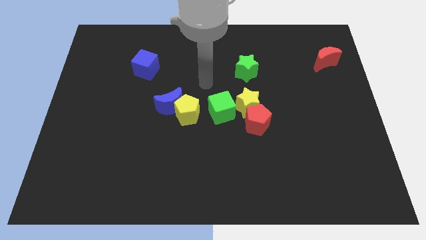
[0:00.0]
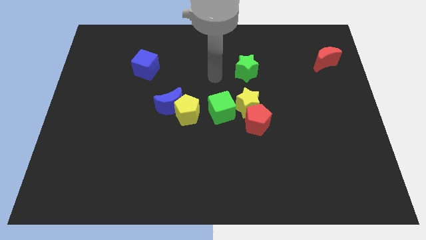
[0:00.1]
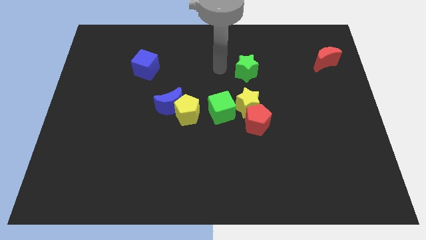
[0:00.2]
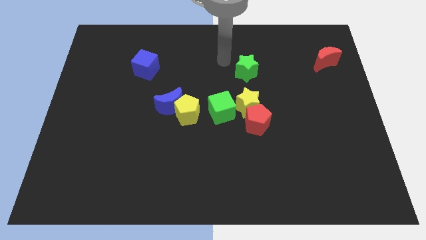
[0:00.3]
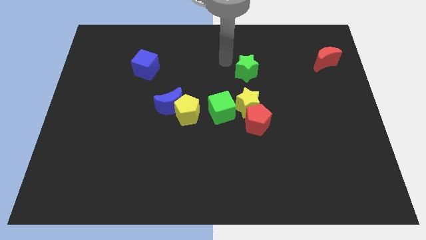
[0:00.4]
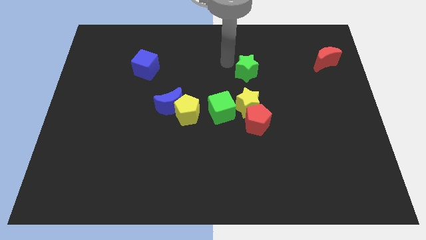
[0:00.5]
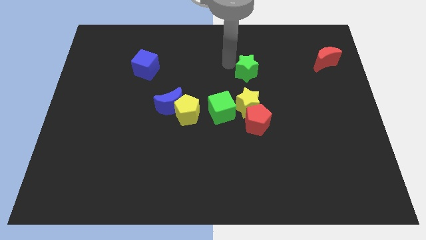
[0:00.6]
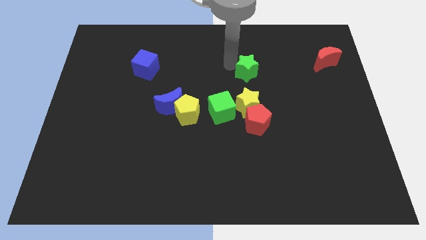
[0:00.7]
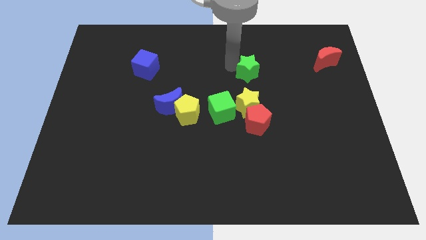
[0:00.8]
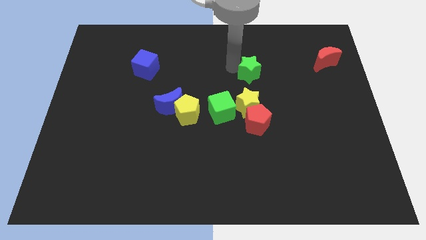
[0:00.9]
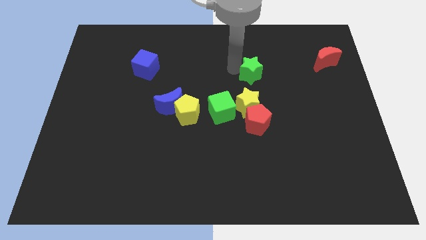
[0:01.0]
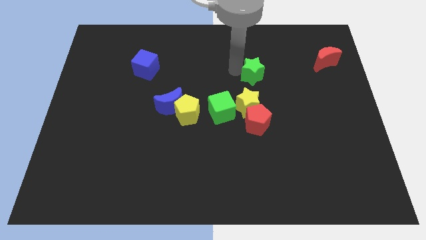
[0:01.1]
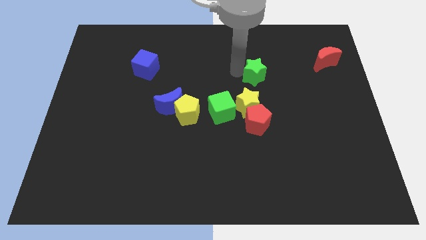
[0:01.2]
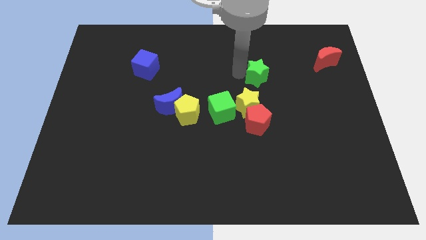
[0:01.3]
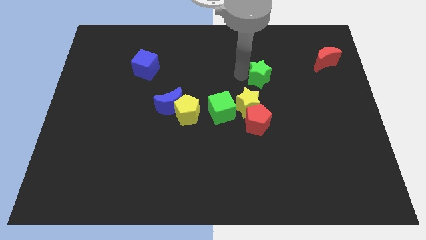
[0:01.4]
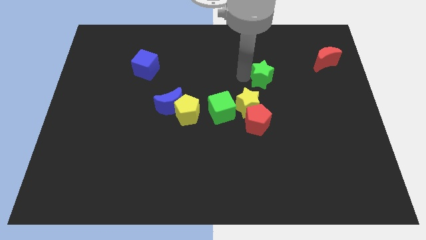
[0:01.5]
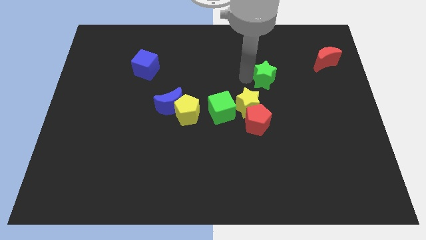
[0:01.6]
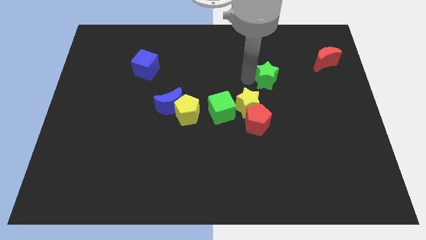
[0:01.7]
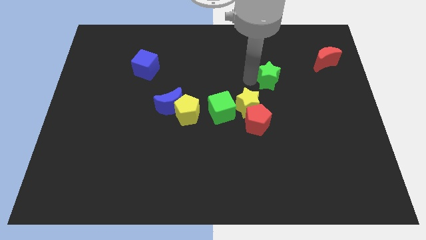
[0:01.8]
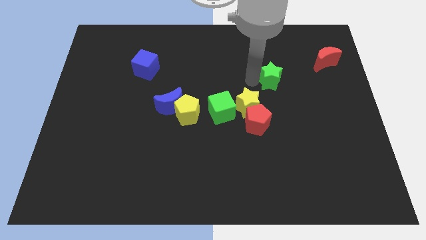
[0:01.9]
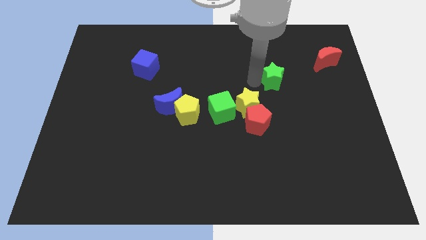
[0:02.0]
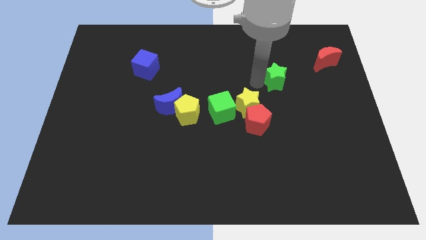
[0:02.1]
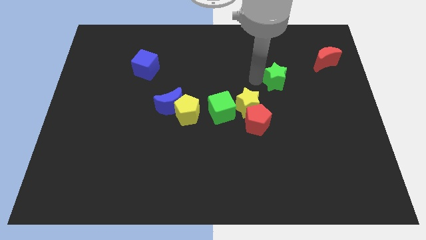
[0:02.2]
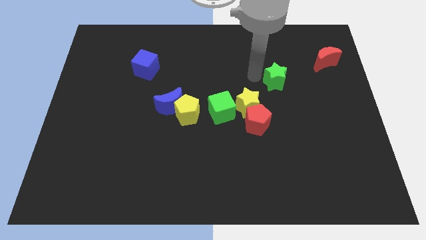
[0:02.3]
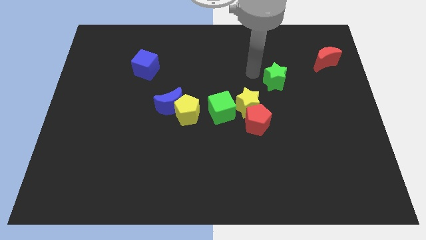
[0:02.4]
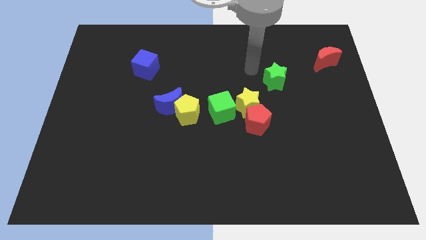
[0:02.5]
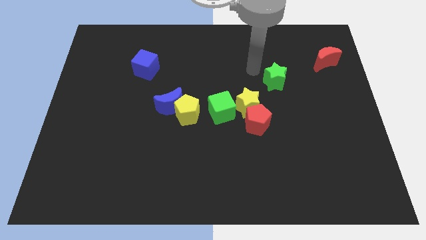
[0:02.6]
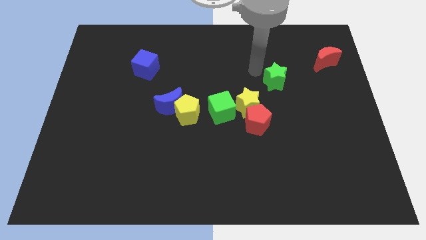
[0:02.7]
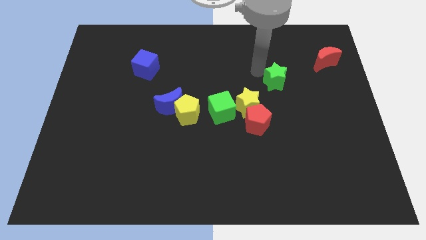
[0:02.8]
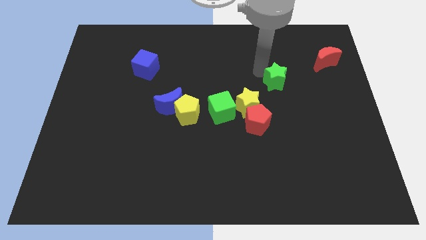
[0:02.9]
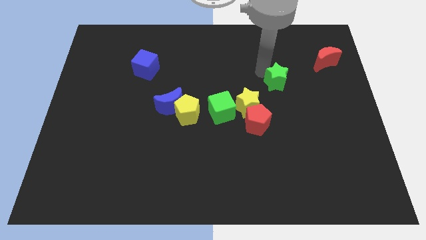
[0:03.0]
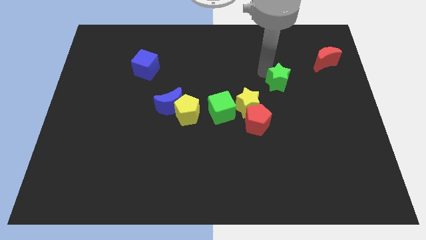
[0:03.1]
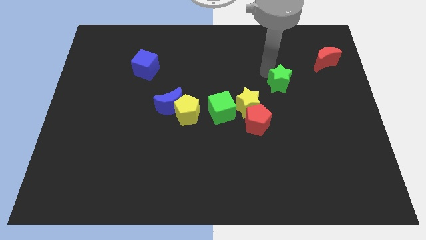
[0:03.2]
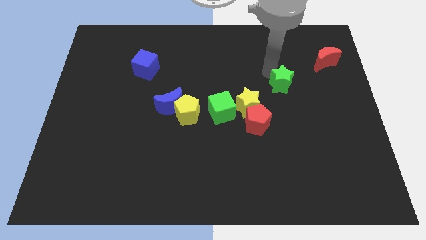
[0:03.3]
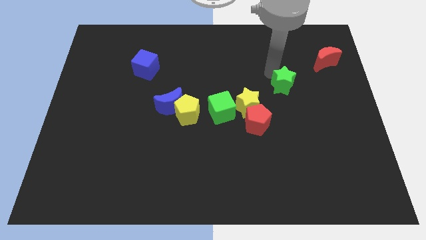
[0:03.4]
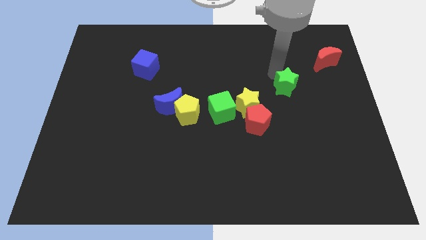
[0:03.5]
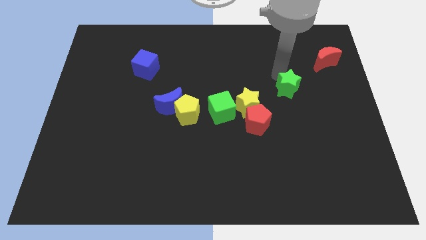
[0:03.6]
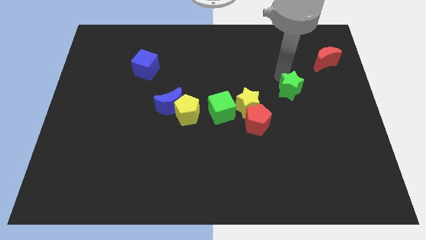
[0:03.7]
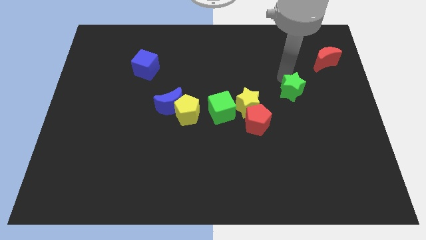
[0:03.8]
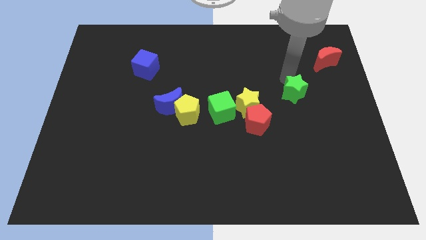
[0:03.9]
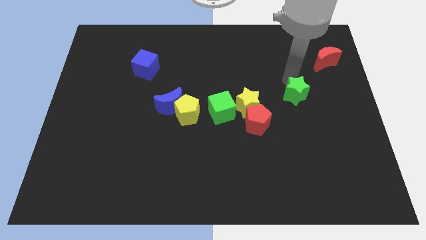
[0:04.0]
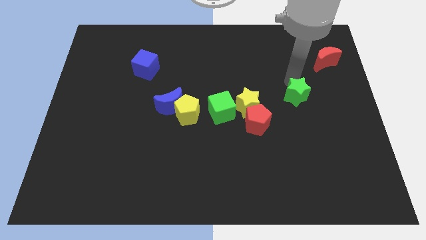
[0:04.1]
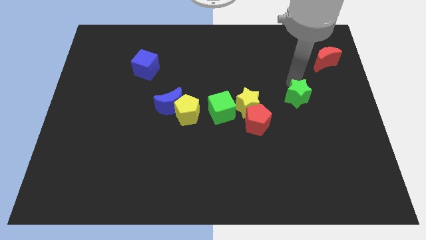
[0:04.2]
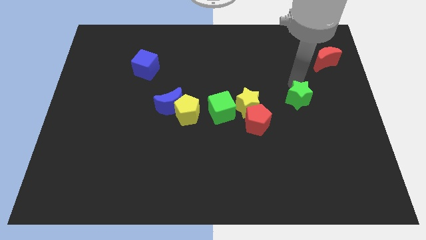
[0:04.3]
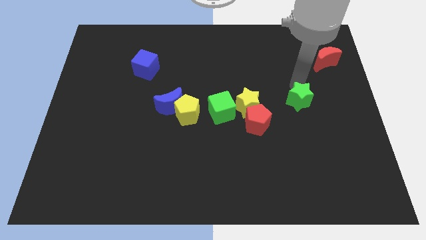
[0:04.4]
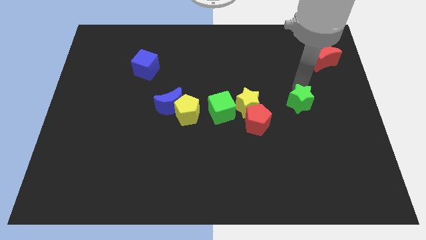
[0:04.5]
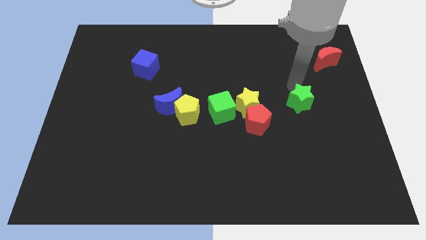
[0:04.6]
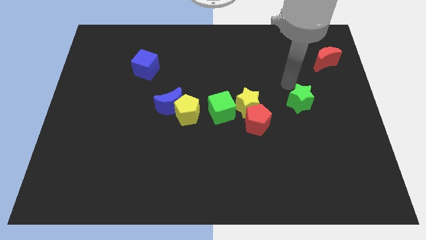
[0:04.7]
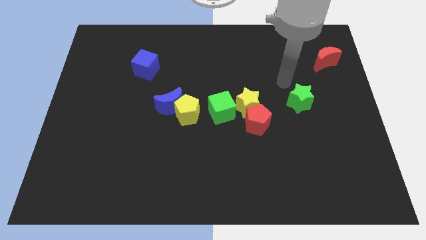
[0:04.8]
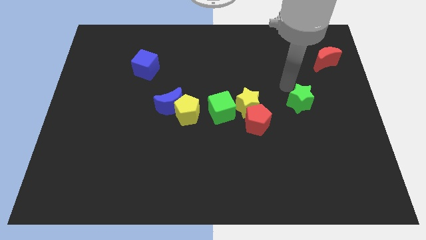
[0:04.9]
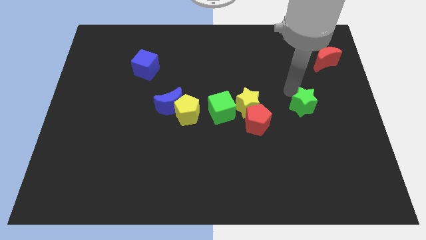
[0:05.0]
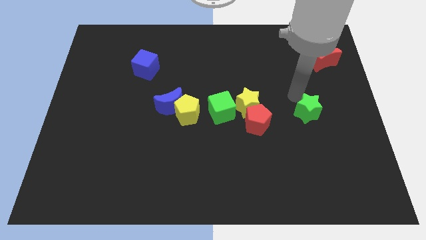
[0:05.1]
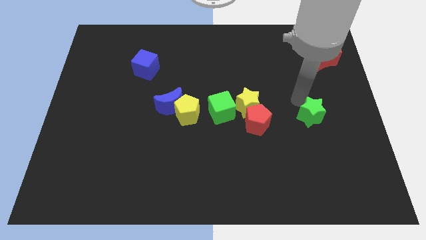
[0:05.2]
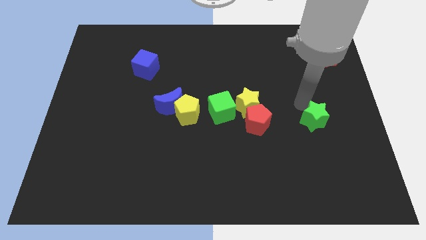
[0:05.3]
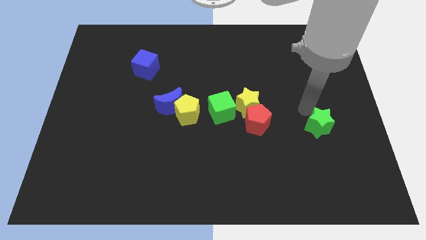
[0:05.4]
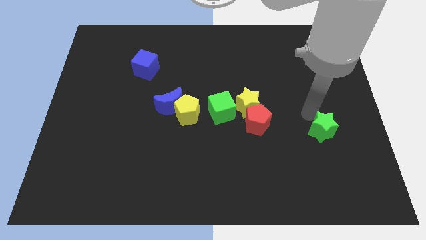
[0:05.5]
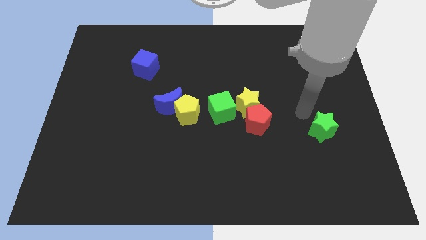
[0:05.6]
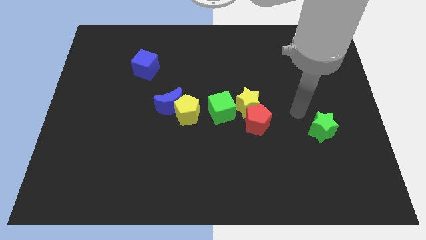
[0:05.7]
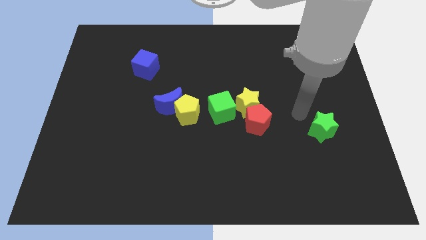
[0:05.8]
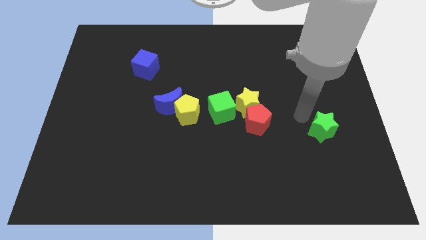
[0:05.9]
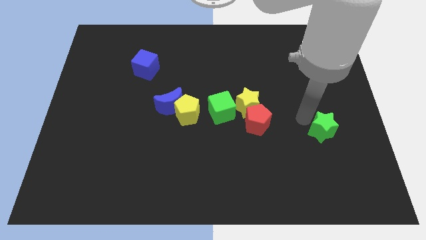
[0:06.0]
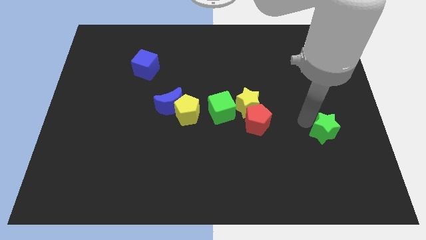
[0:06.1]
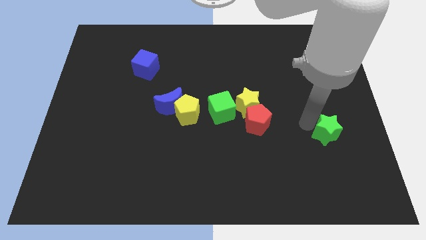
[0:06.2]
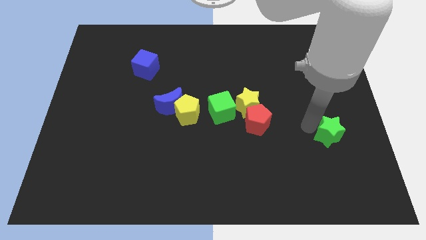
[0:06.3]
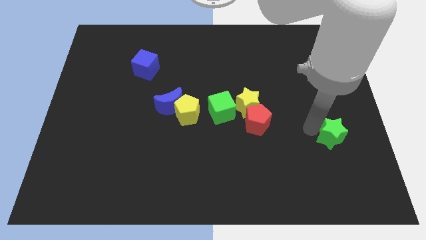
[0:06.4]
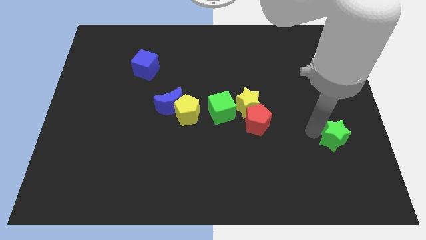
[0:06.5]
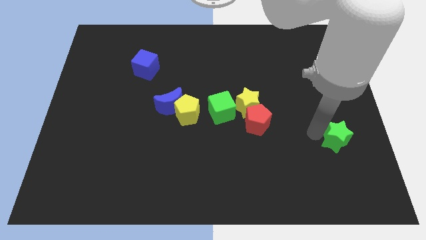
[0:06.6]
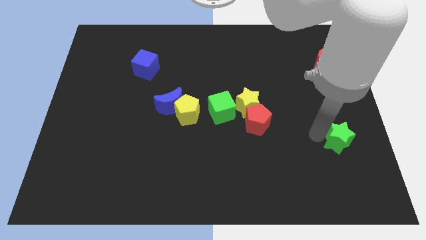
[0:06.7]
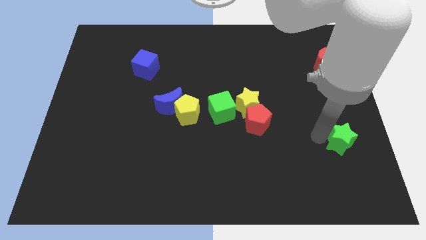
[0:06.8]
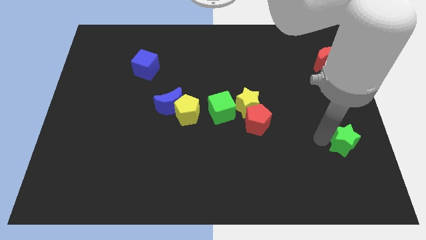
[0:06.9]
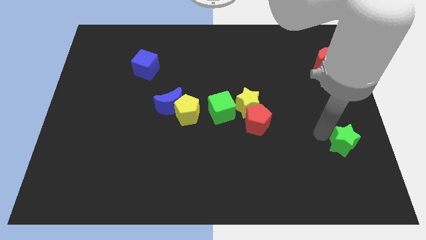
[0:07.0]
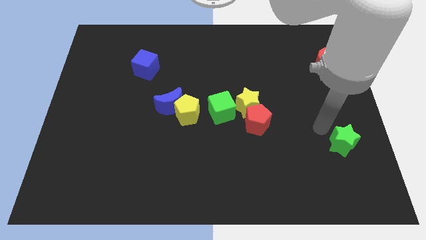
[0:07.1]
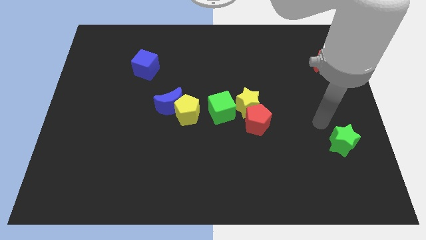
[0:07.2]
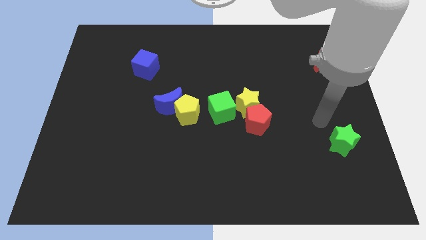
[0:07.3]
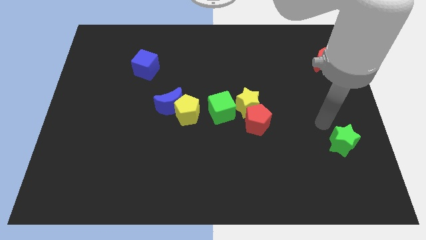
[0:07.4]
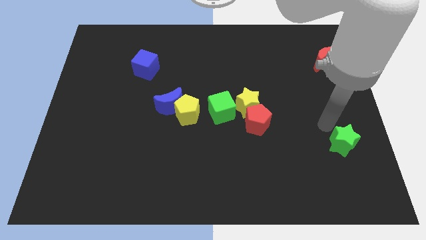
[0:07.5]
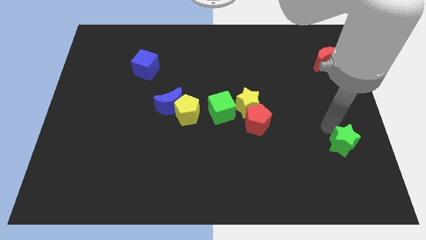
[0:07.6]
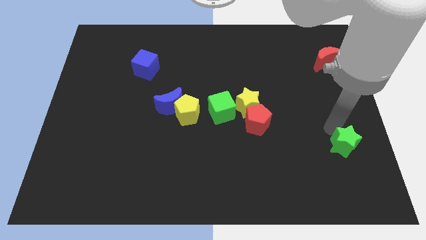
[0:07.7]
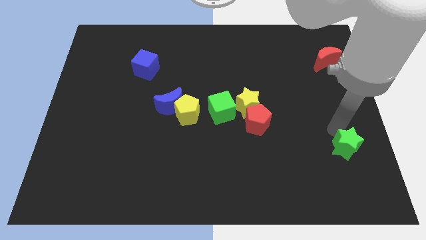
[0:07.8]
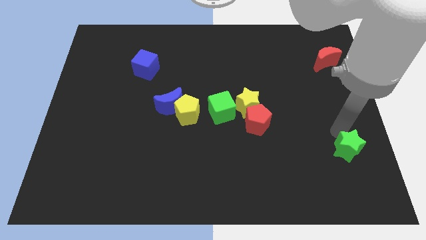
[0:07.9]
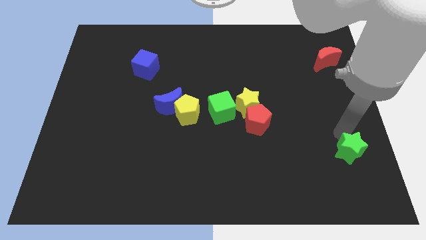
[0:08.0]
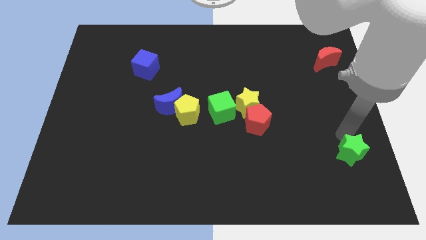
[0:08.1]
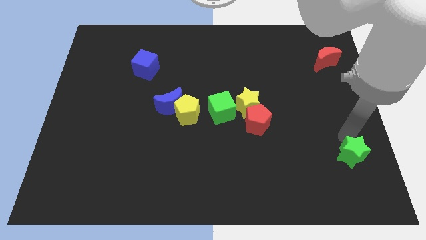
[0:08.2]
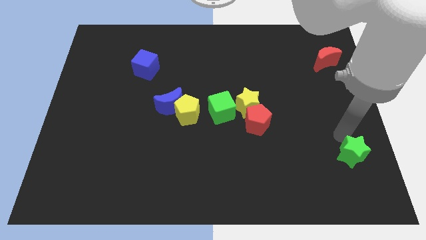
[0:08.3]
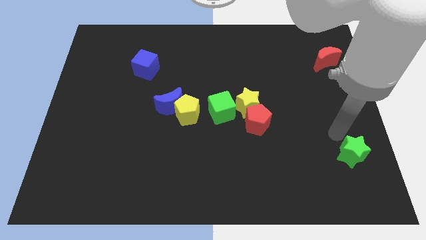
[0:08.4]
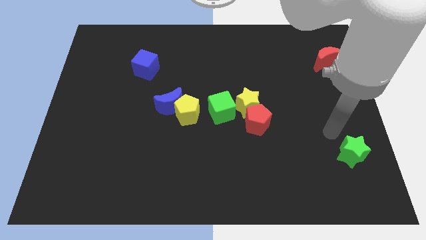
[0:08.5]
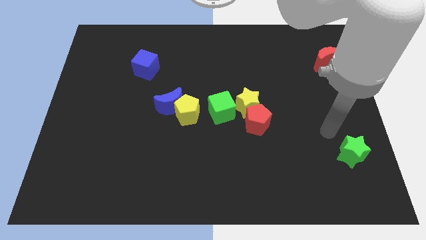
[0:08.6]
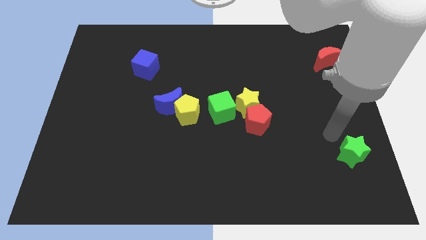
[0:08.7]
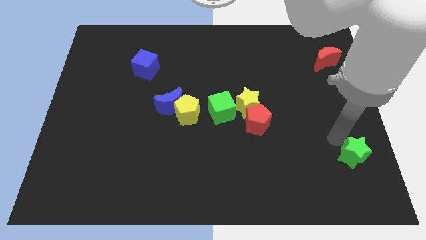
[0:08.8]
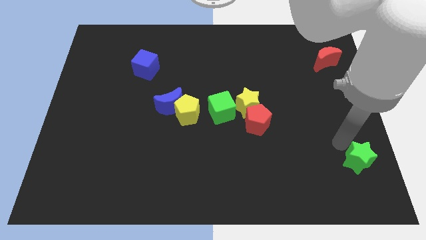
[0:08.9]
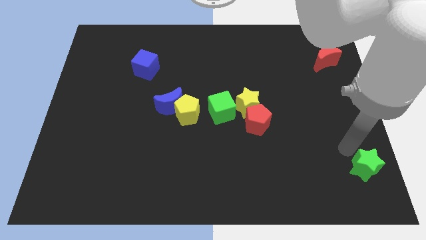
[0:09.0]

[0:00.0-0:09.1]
move the green star to the bottom right corner
